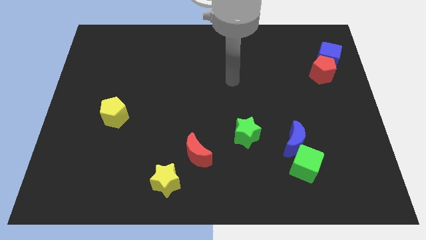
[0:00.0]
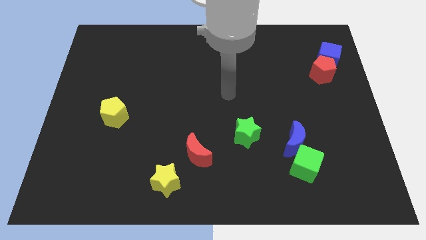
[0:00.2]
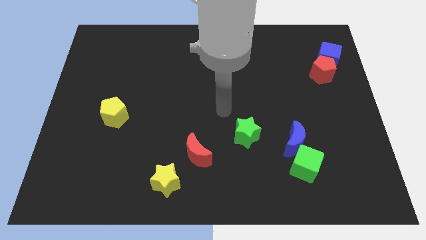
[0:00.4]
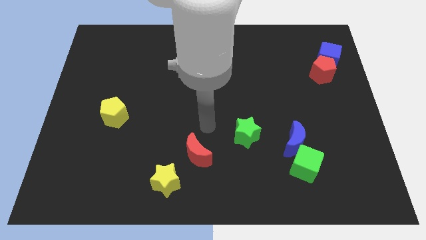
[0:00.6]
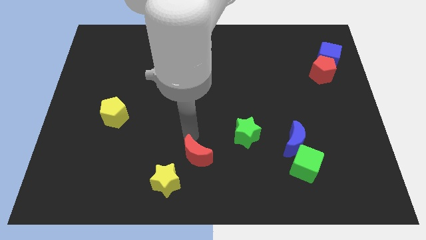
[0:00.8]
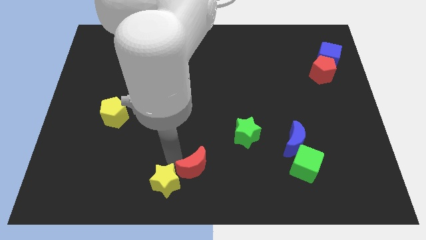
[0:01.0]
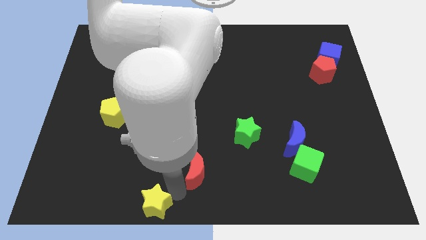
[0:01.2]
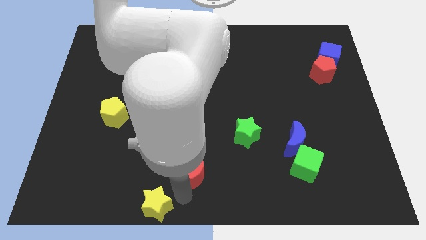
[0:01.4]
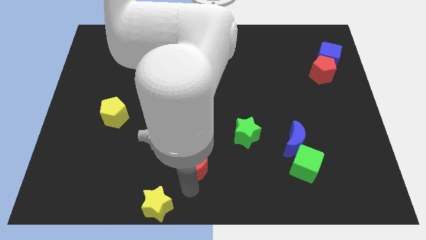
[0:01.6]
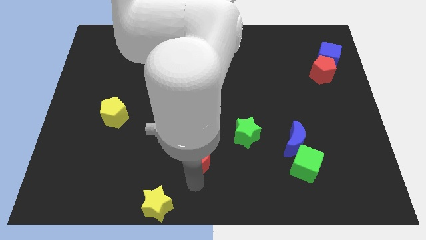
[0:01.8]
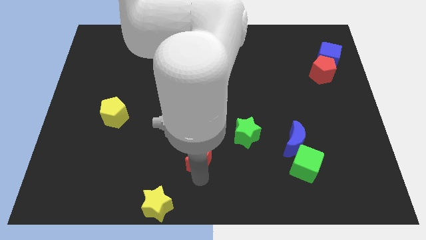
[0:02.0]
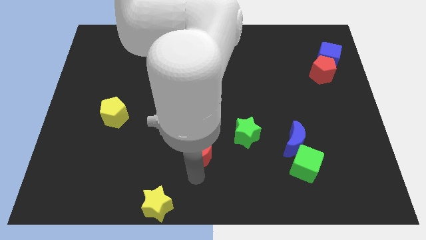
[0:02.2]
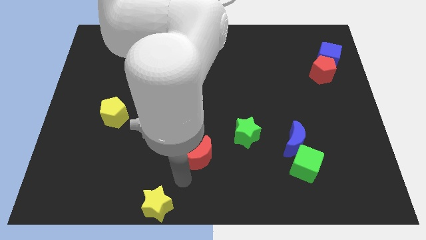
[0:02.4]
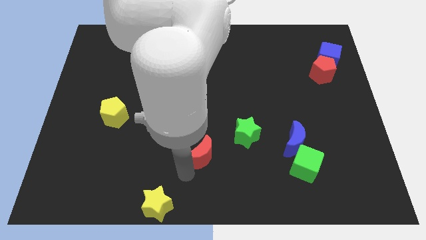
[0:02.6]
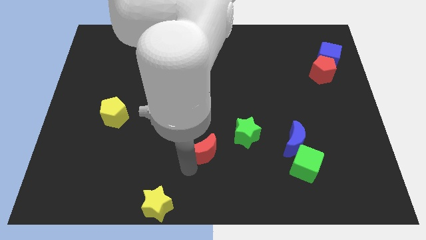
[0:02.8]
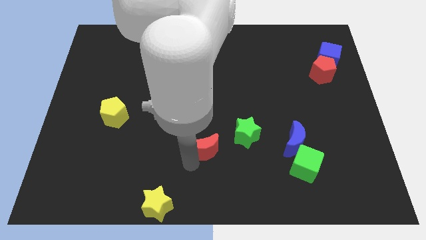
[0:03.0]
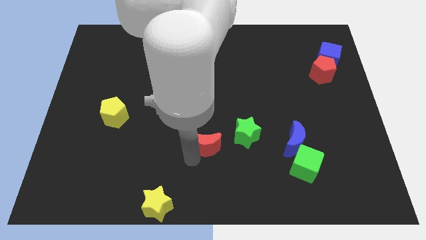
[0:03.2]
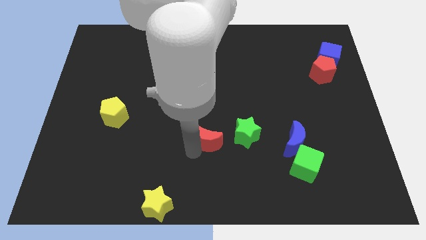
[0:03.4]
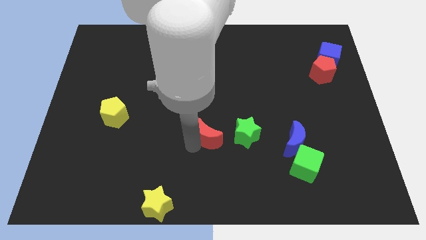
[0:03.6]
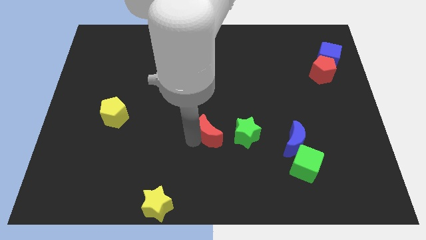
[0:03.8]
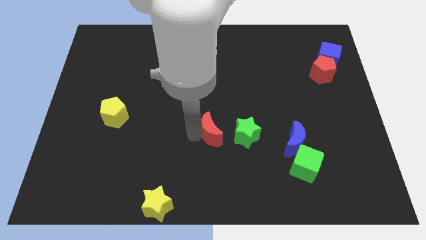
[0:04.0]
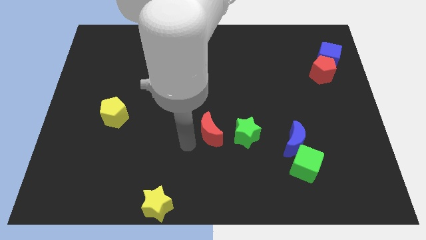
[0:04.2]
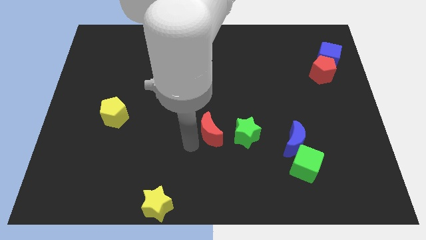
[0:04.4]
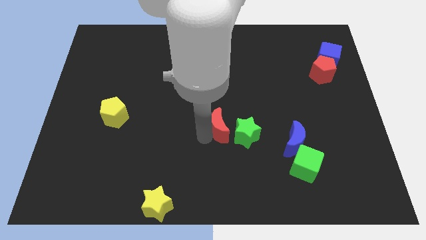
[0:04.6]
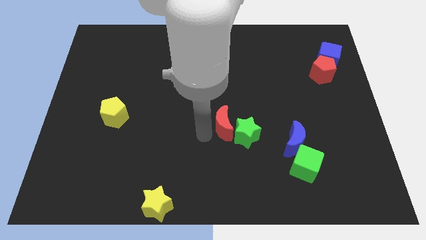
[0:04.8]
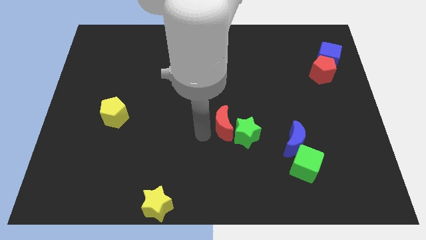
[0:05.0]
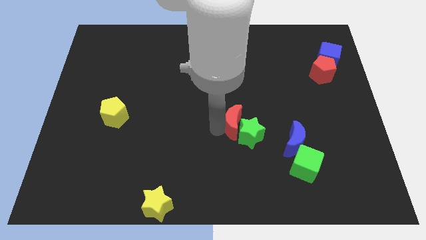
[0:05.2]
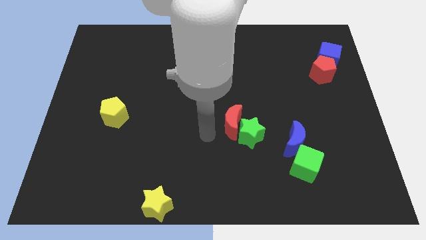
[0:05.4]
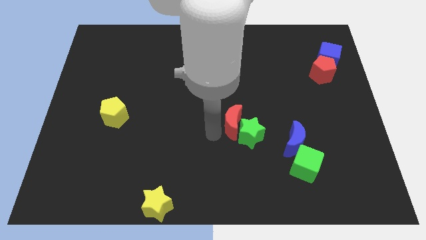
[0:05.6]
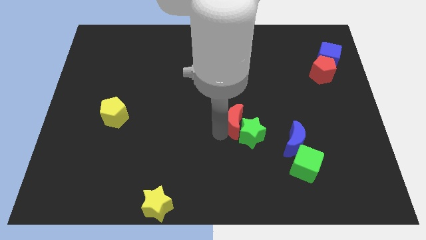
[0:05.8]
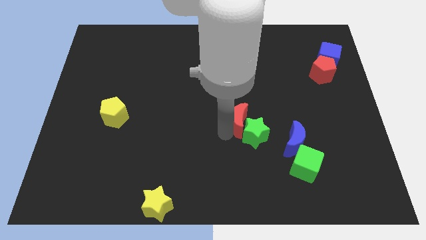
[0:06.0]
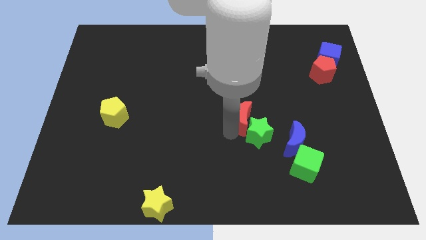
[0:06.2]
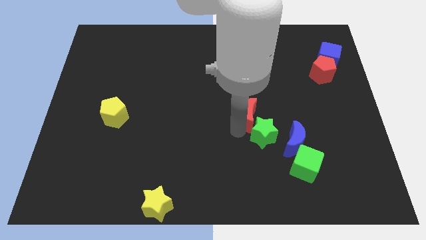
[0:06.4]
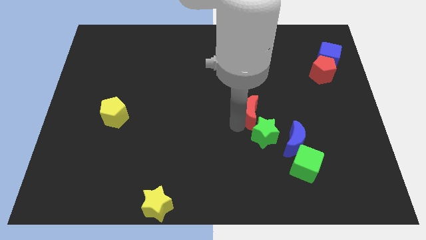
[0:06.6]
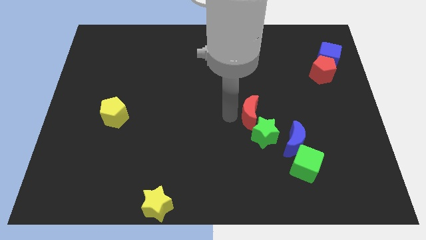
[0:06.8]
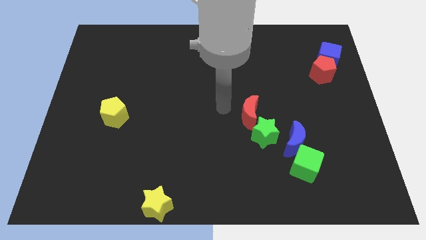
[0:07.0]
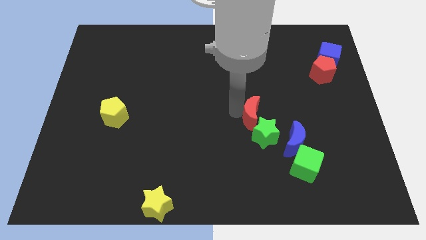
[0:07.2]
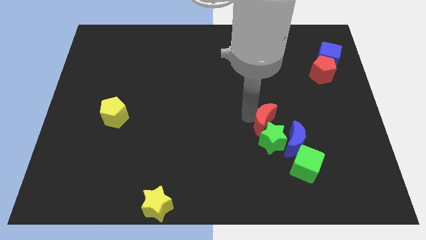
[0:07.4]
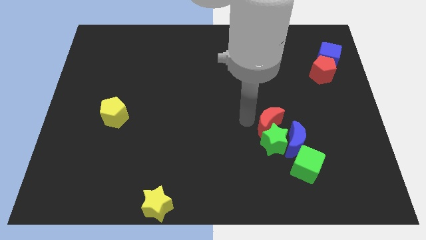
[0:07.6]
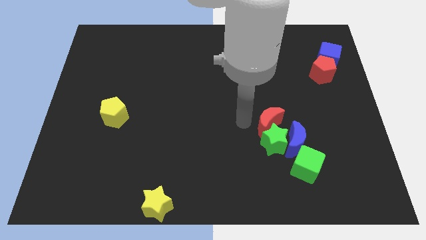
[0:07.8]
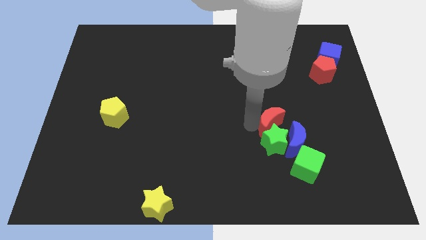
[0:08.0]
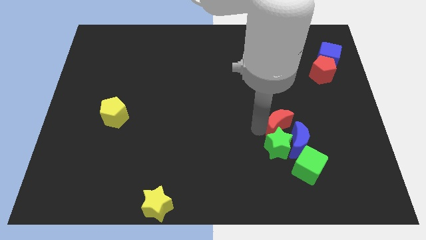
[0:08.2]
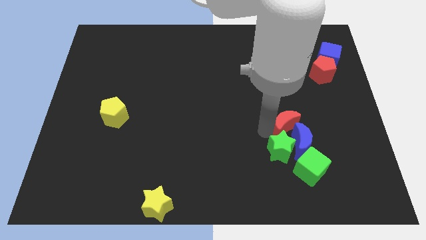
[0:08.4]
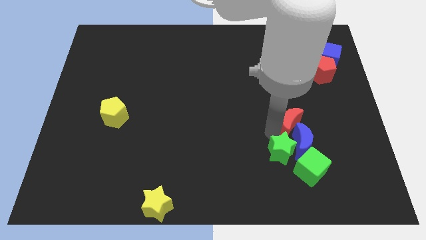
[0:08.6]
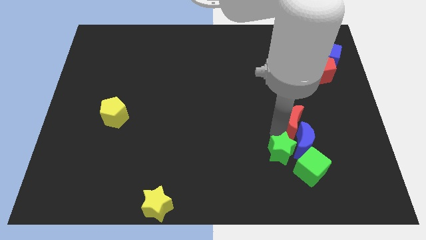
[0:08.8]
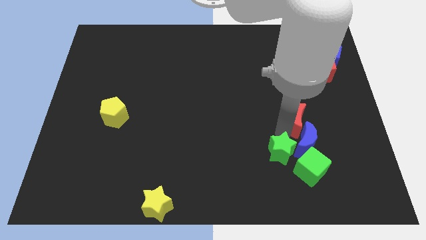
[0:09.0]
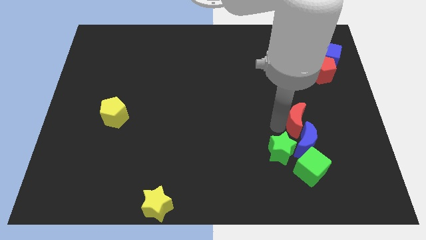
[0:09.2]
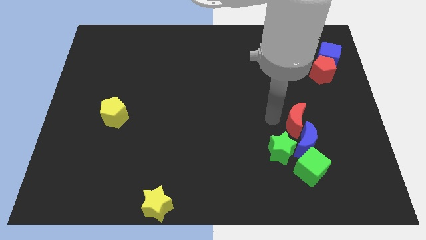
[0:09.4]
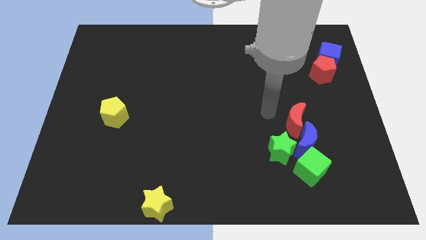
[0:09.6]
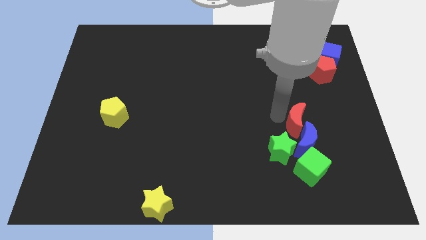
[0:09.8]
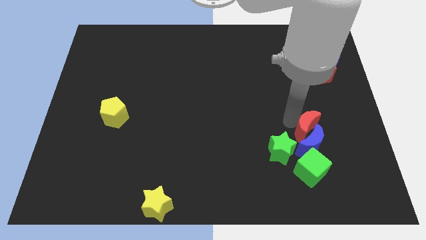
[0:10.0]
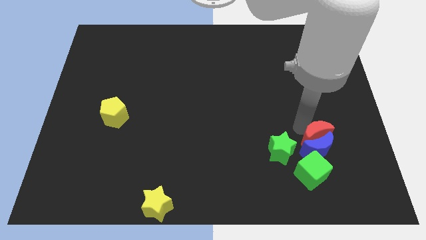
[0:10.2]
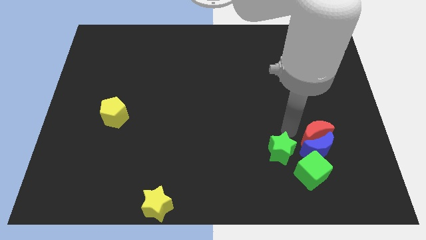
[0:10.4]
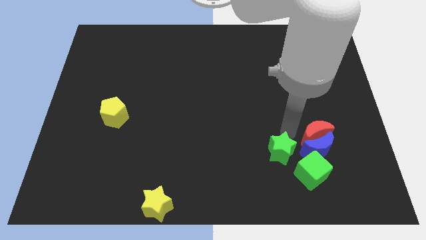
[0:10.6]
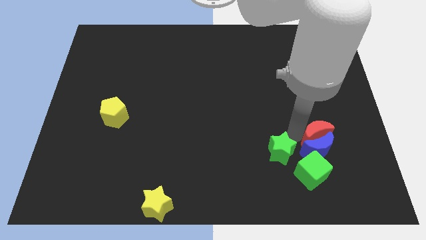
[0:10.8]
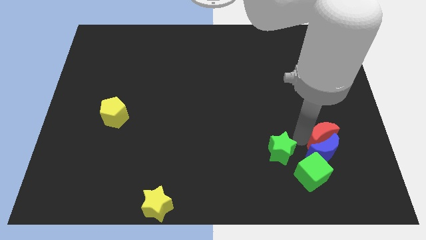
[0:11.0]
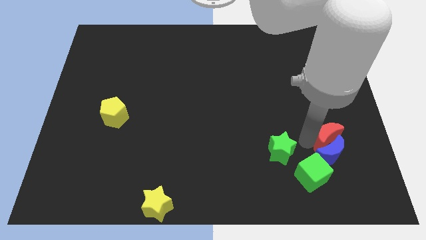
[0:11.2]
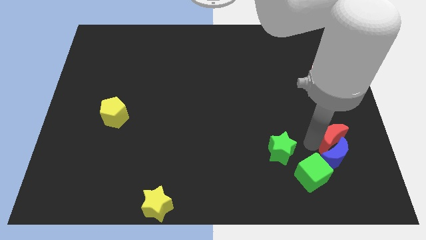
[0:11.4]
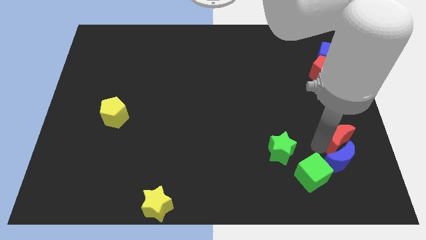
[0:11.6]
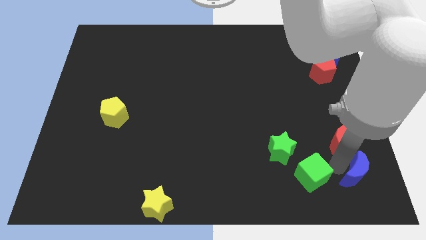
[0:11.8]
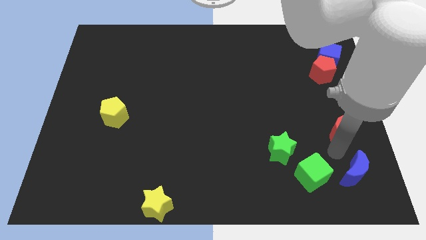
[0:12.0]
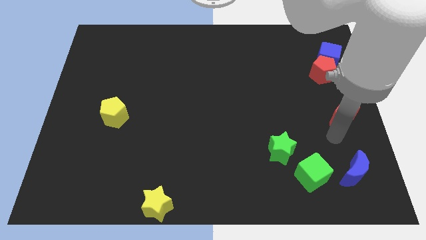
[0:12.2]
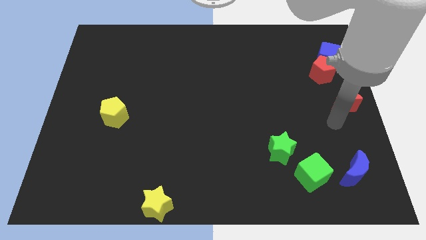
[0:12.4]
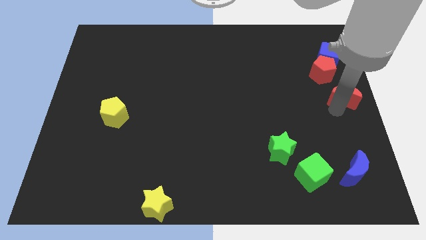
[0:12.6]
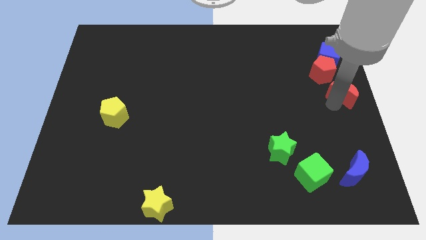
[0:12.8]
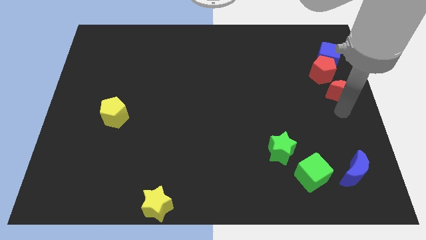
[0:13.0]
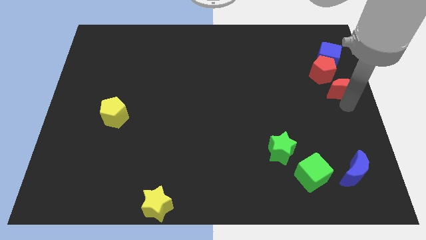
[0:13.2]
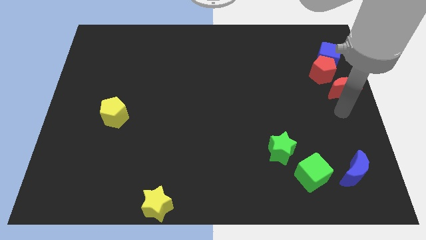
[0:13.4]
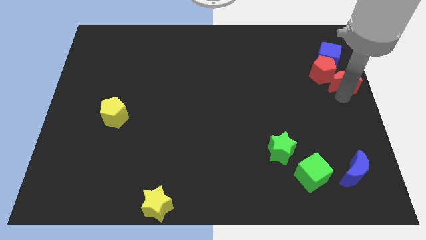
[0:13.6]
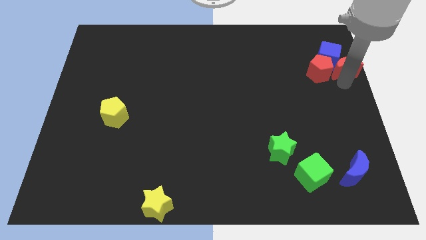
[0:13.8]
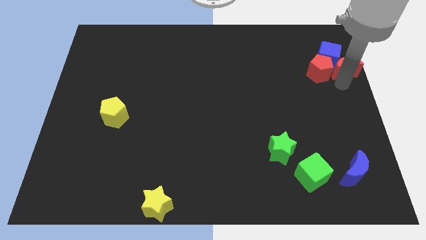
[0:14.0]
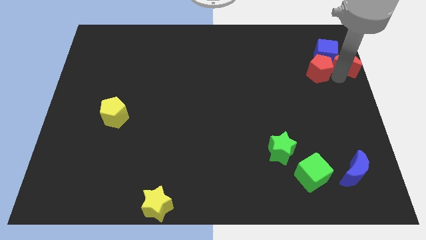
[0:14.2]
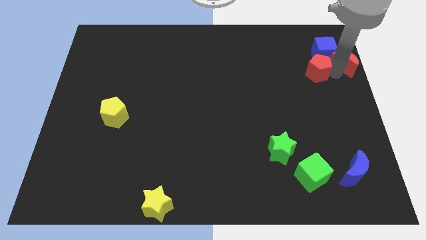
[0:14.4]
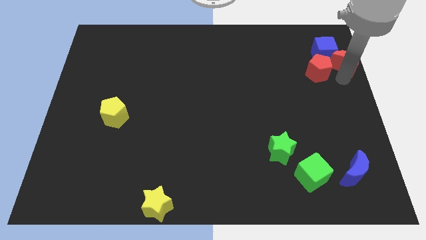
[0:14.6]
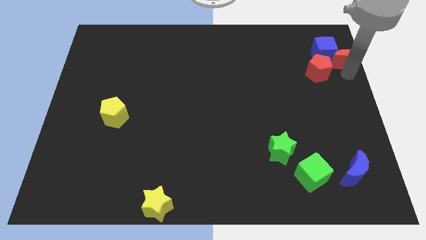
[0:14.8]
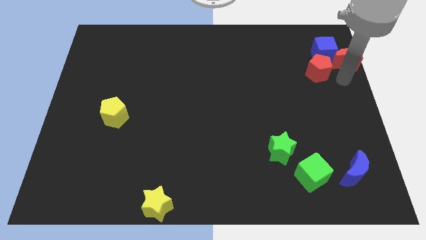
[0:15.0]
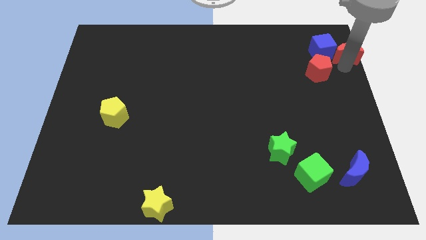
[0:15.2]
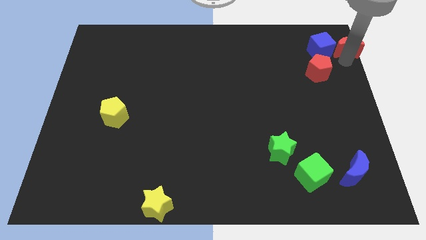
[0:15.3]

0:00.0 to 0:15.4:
move the red moon to the top right

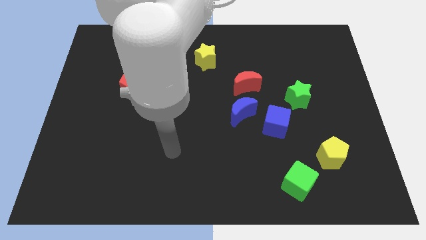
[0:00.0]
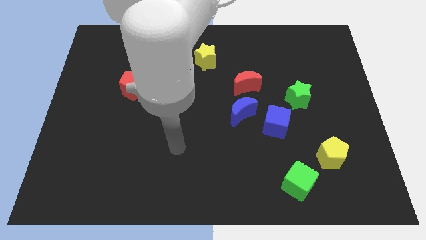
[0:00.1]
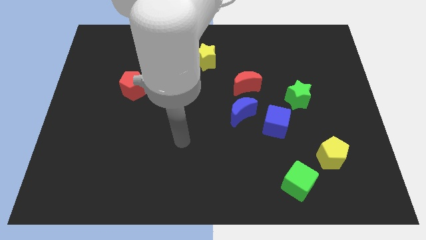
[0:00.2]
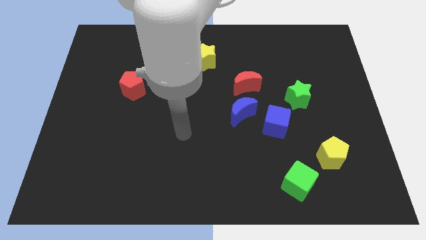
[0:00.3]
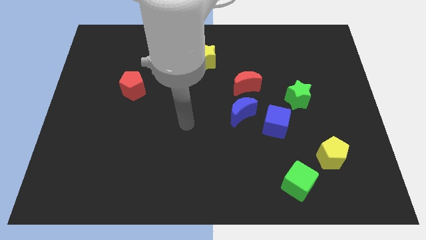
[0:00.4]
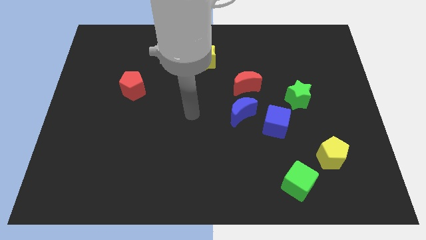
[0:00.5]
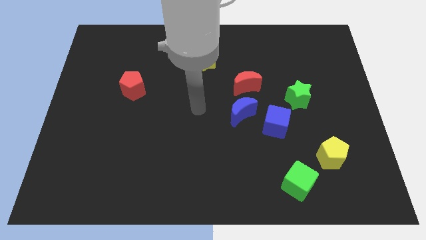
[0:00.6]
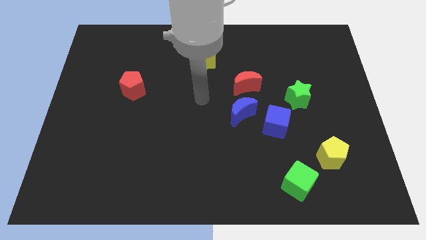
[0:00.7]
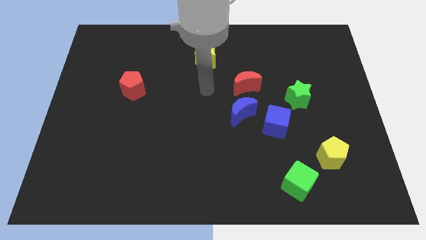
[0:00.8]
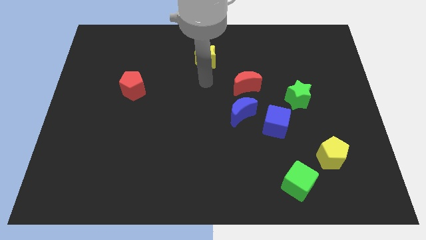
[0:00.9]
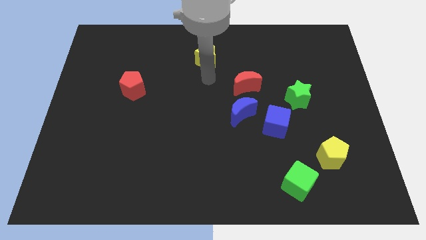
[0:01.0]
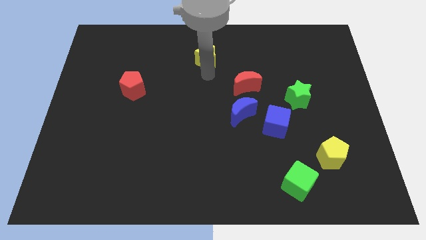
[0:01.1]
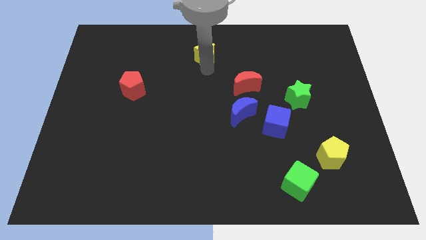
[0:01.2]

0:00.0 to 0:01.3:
slide the yellow star to the top side
